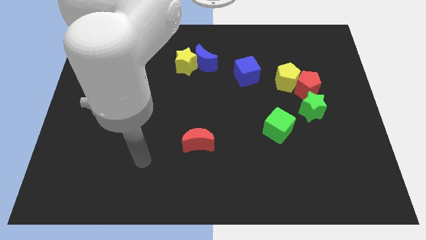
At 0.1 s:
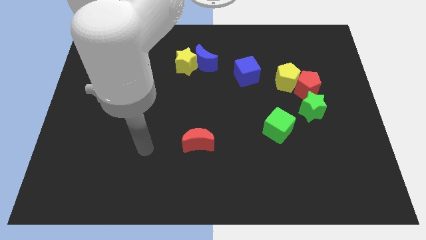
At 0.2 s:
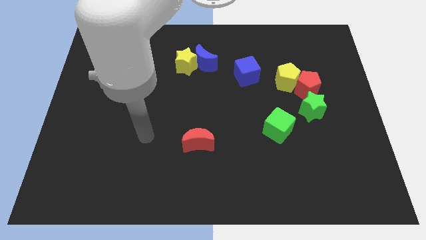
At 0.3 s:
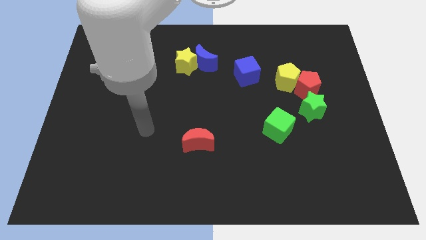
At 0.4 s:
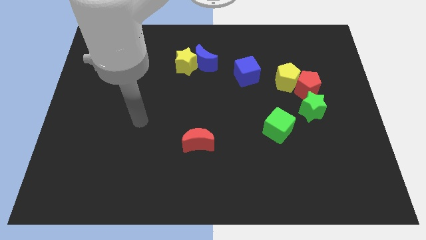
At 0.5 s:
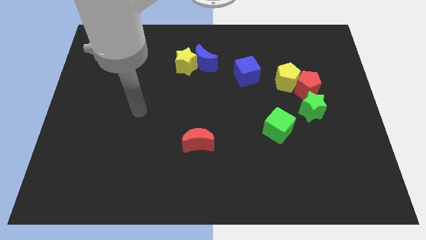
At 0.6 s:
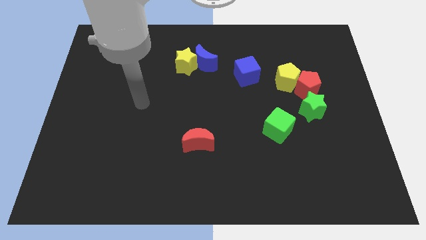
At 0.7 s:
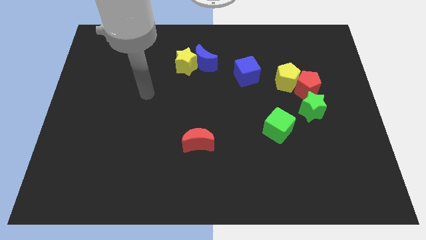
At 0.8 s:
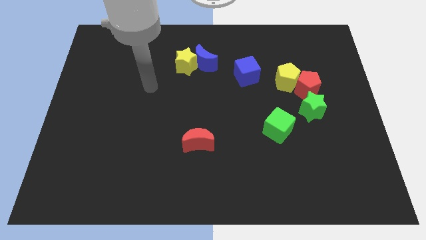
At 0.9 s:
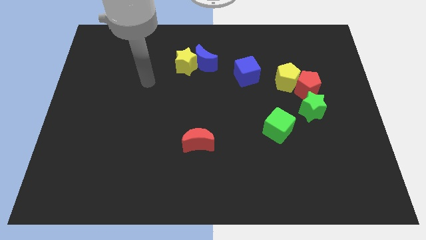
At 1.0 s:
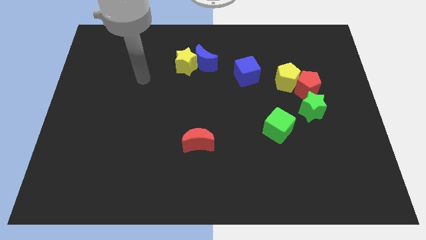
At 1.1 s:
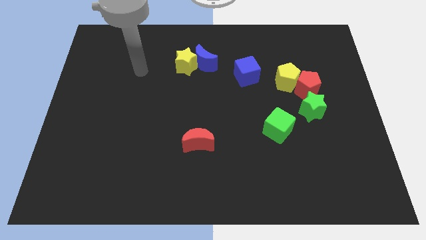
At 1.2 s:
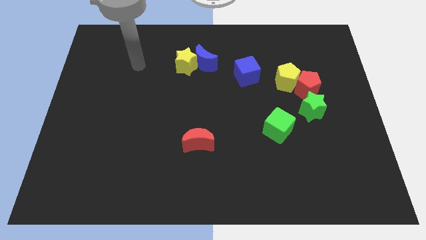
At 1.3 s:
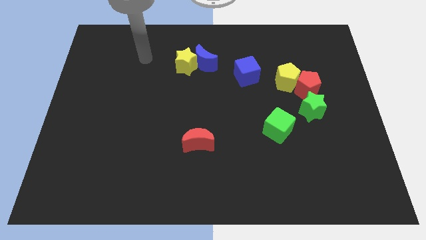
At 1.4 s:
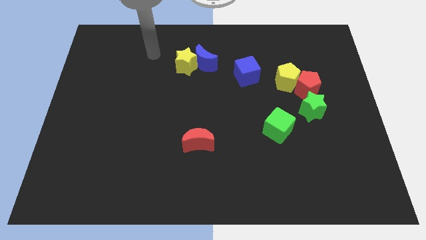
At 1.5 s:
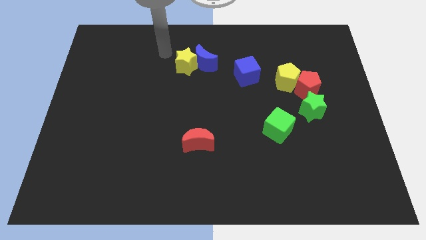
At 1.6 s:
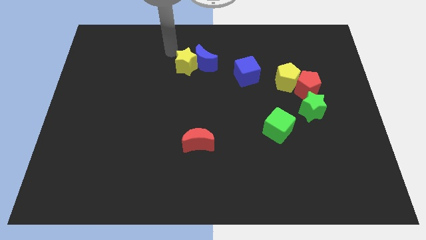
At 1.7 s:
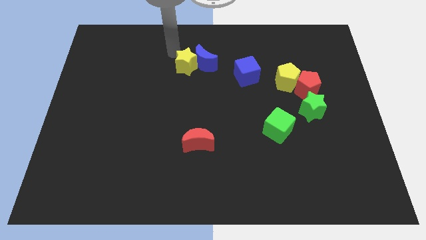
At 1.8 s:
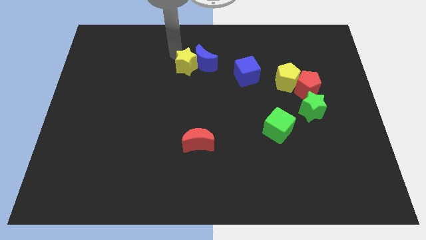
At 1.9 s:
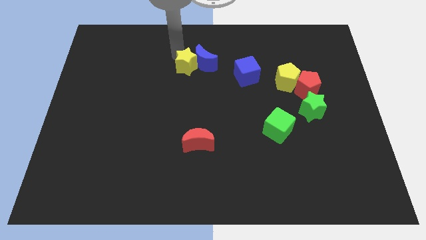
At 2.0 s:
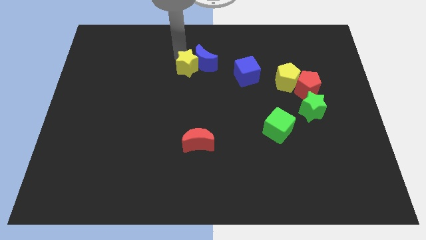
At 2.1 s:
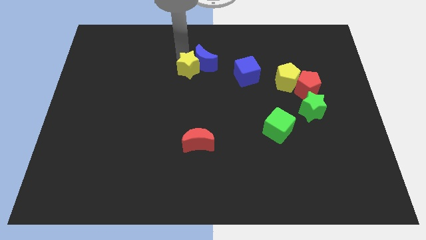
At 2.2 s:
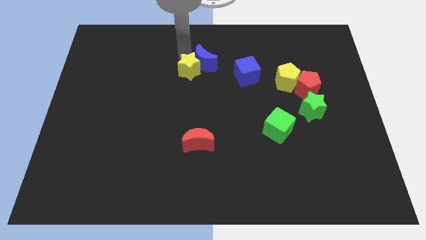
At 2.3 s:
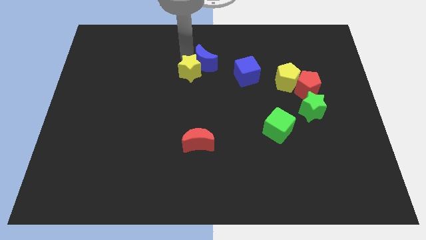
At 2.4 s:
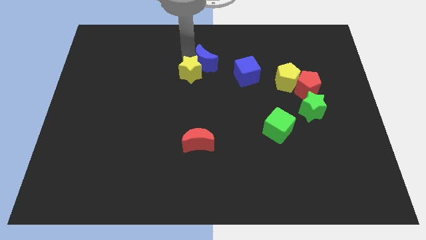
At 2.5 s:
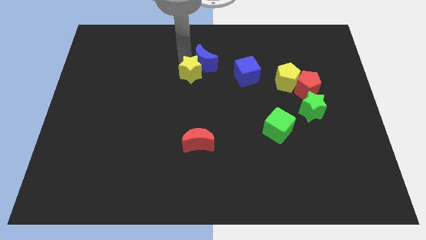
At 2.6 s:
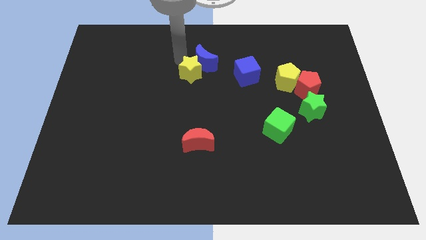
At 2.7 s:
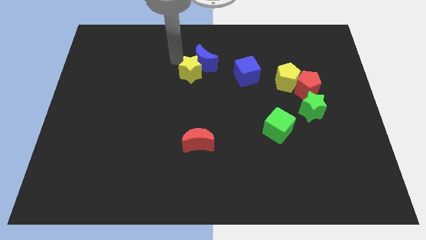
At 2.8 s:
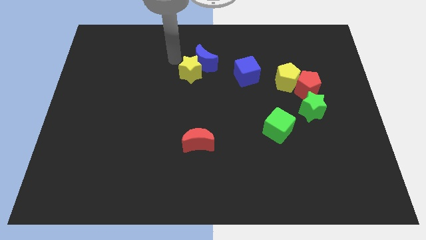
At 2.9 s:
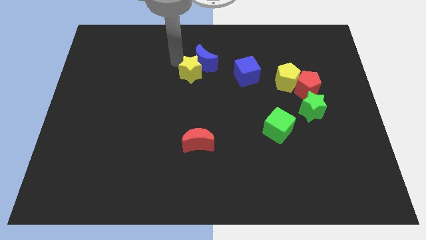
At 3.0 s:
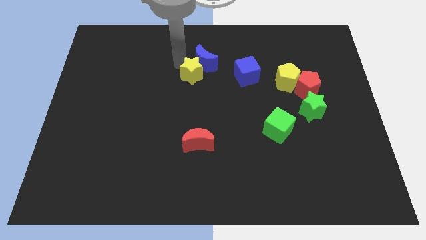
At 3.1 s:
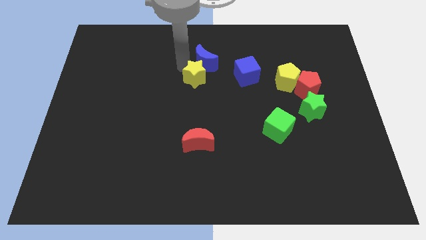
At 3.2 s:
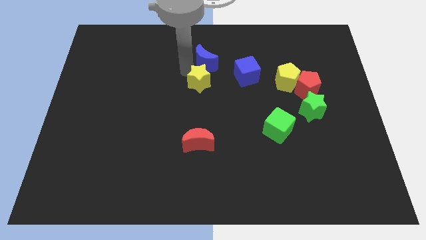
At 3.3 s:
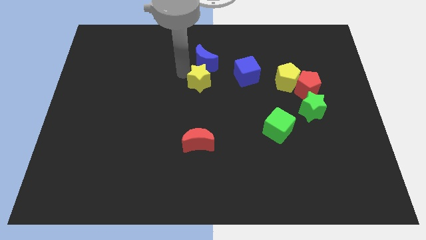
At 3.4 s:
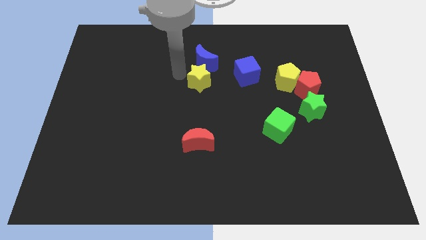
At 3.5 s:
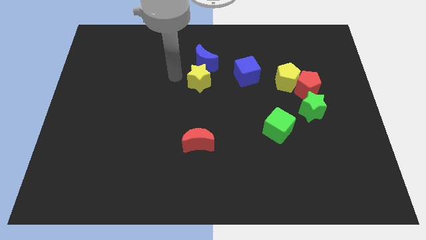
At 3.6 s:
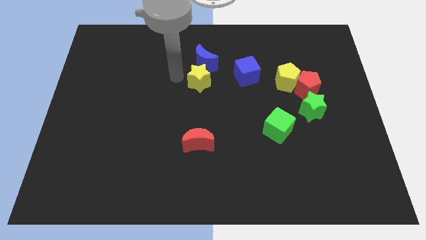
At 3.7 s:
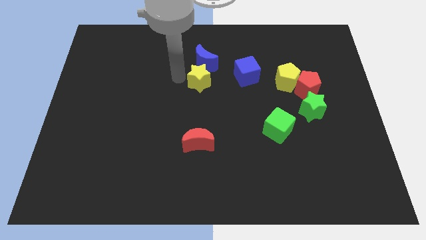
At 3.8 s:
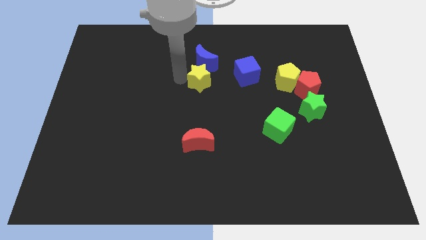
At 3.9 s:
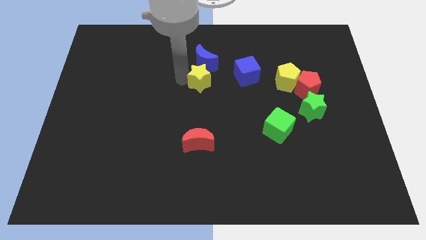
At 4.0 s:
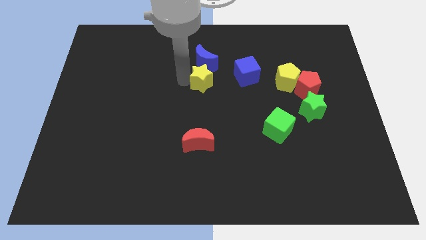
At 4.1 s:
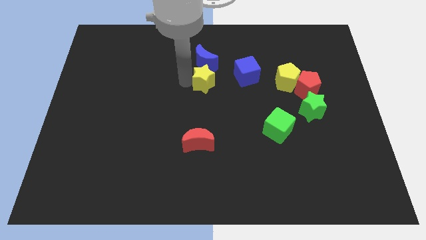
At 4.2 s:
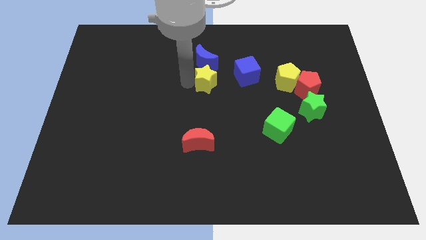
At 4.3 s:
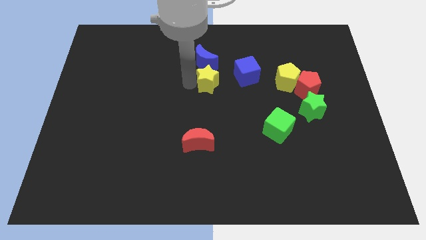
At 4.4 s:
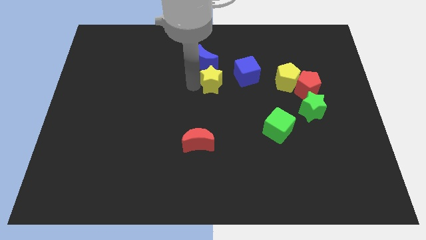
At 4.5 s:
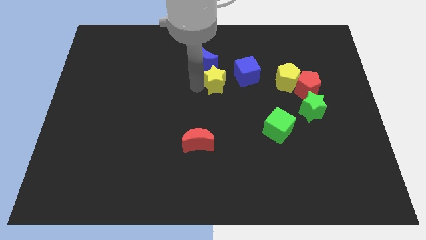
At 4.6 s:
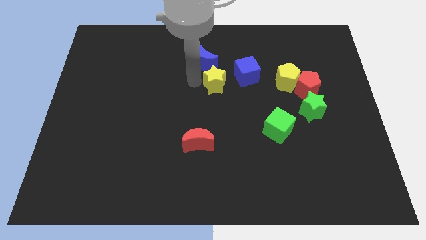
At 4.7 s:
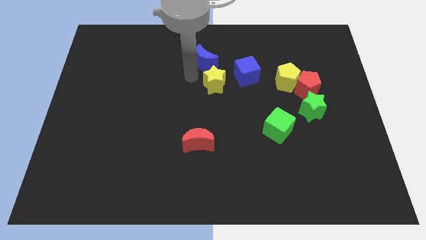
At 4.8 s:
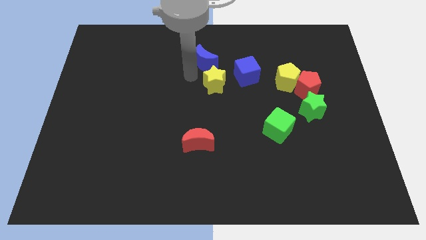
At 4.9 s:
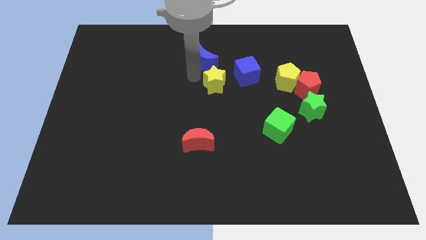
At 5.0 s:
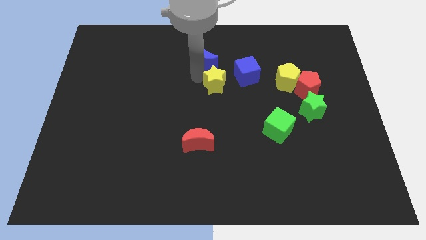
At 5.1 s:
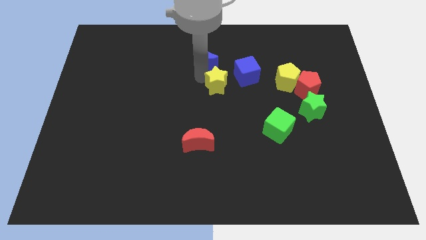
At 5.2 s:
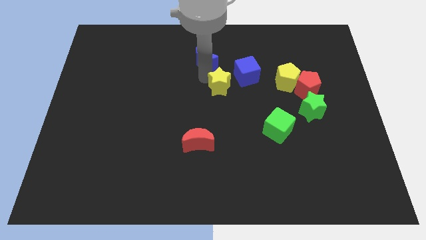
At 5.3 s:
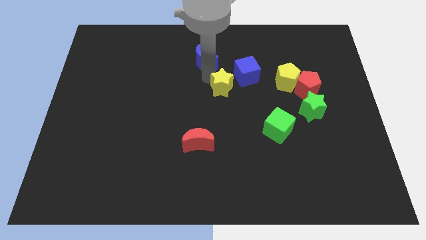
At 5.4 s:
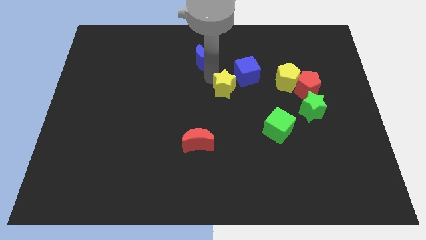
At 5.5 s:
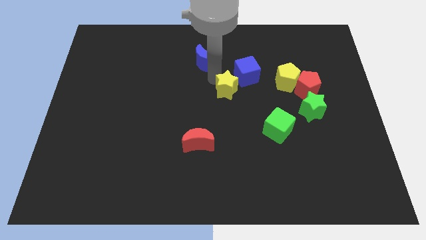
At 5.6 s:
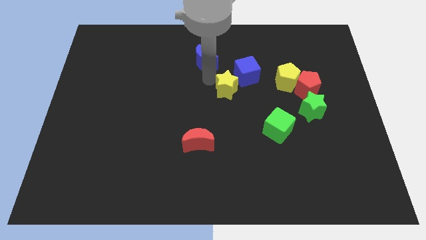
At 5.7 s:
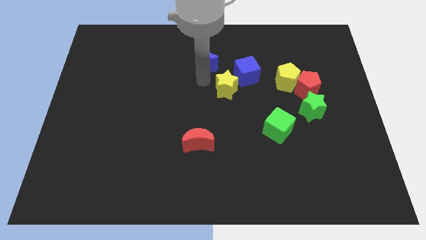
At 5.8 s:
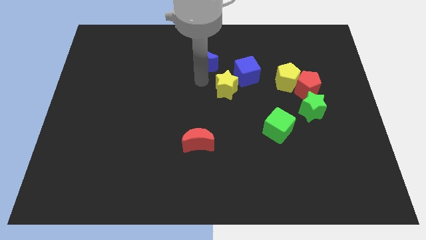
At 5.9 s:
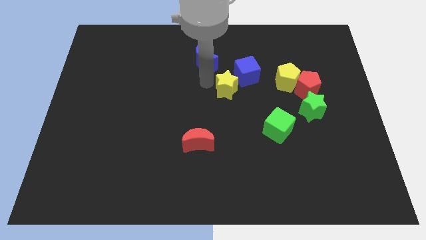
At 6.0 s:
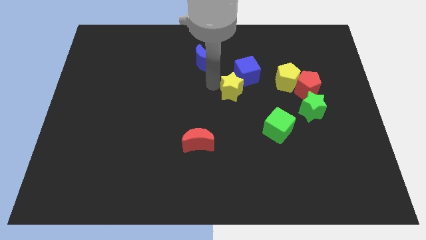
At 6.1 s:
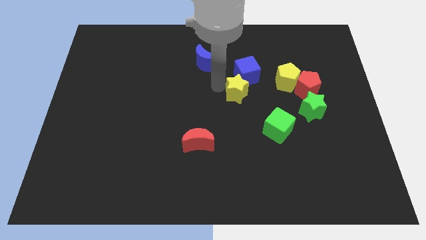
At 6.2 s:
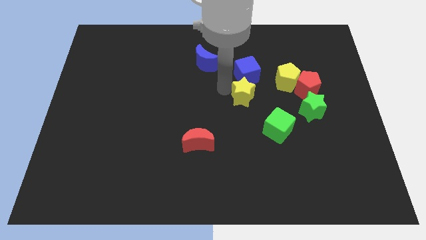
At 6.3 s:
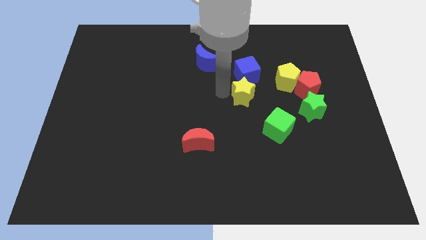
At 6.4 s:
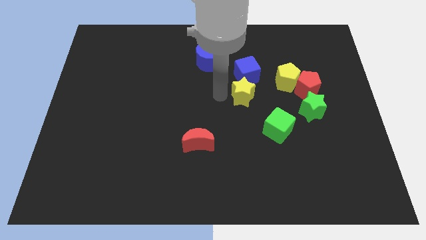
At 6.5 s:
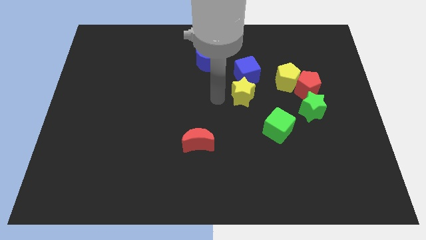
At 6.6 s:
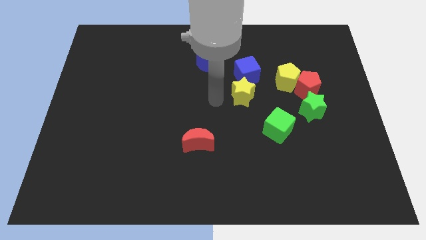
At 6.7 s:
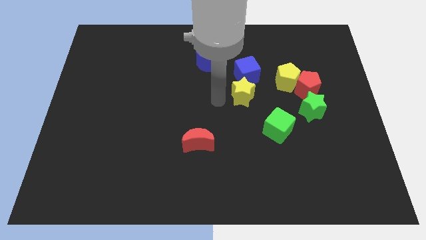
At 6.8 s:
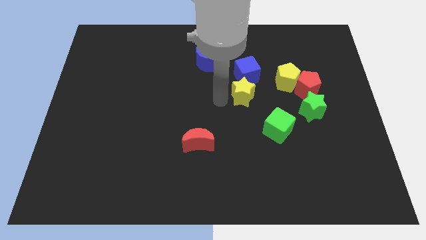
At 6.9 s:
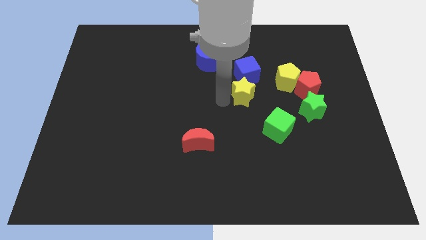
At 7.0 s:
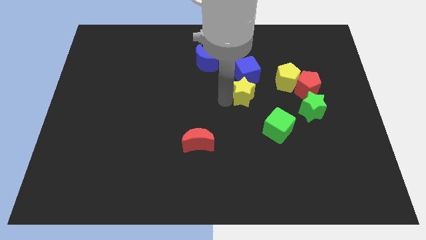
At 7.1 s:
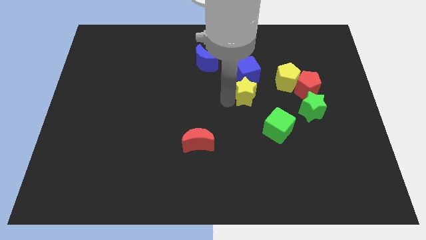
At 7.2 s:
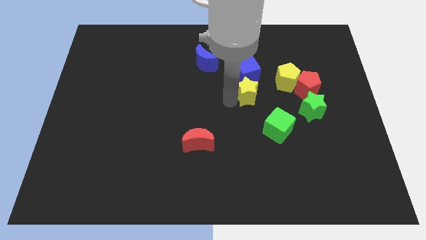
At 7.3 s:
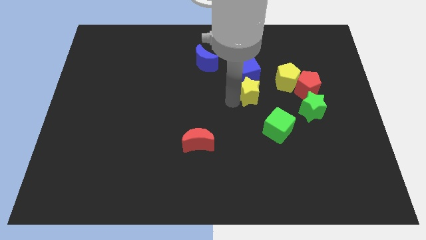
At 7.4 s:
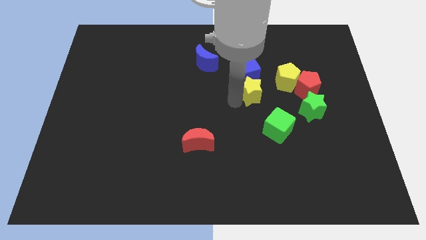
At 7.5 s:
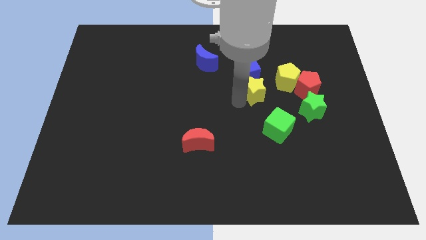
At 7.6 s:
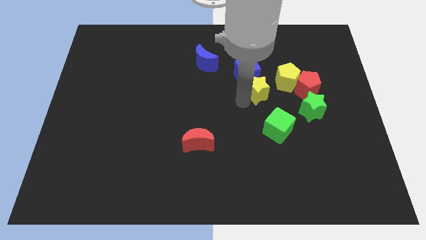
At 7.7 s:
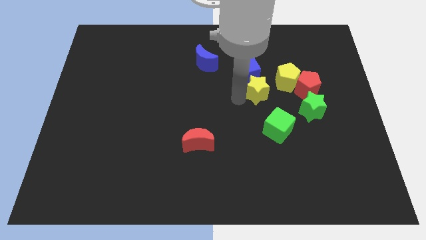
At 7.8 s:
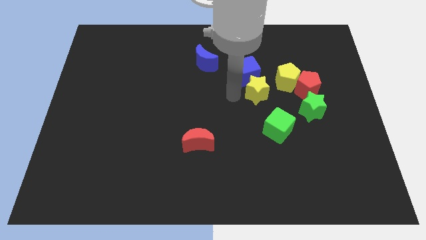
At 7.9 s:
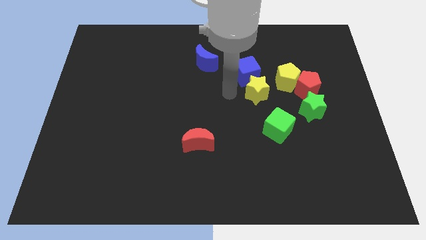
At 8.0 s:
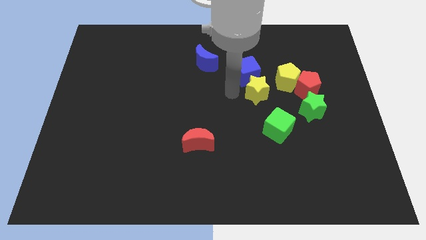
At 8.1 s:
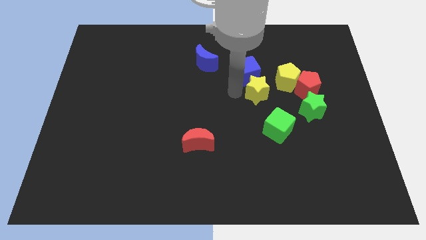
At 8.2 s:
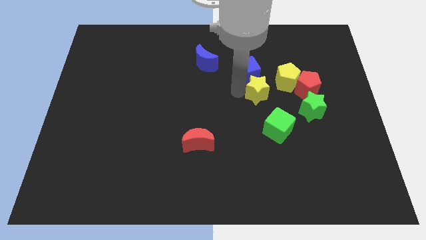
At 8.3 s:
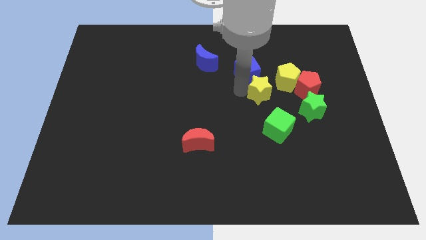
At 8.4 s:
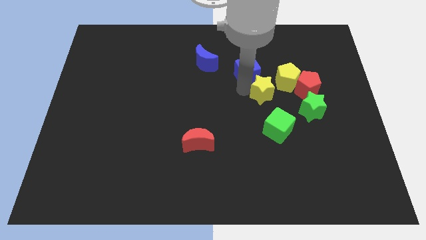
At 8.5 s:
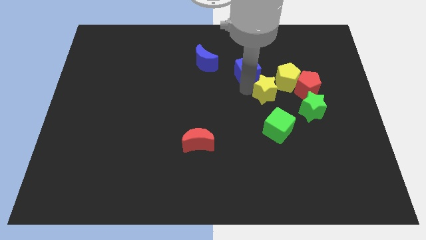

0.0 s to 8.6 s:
push the yellow star to the top left side of the green star
